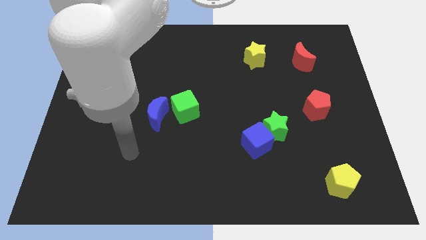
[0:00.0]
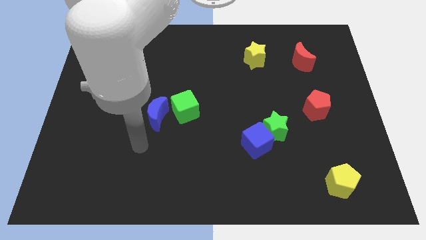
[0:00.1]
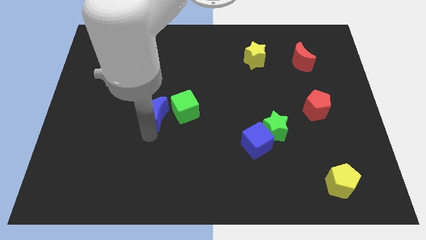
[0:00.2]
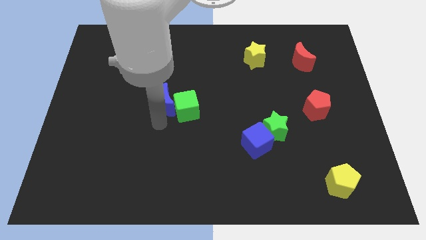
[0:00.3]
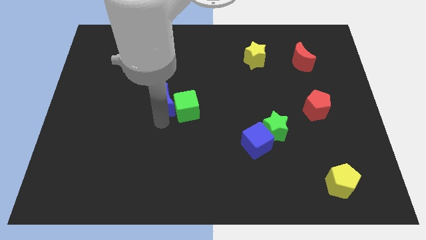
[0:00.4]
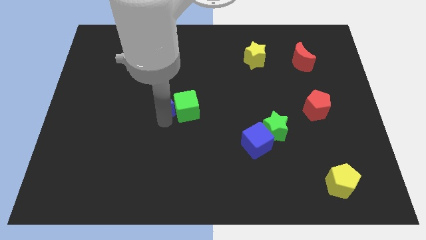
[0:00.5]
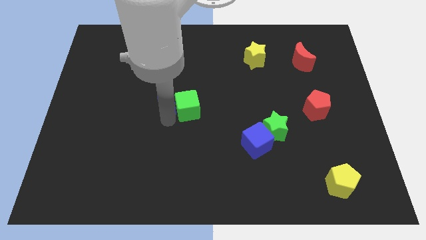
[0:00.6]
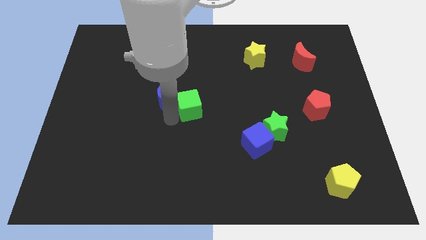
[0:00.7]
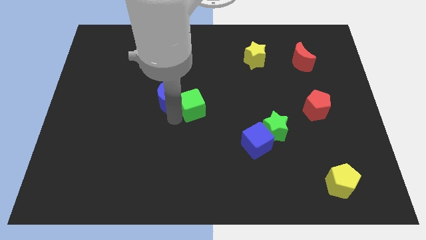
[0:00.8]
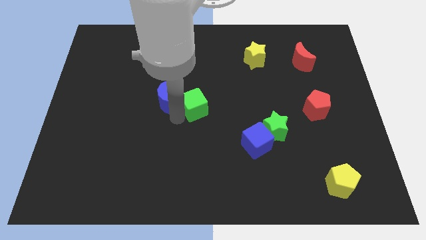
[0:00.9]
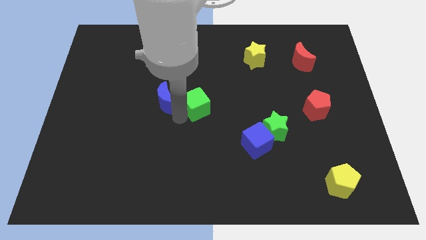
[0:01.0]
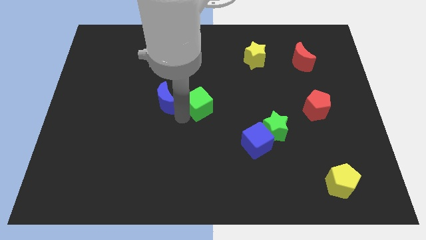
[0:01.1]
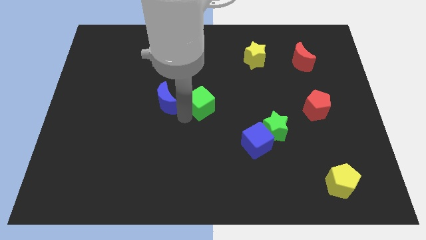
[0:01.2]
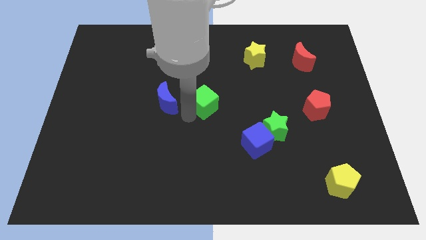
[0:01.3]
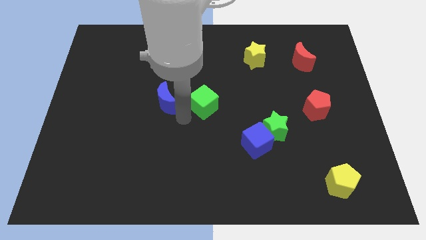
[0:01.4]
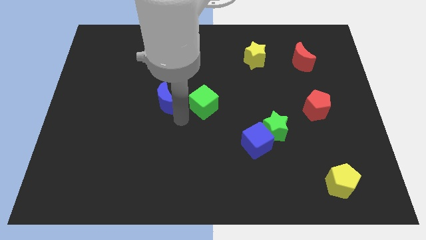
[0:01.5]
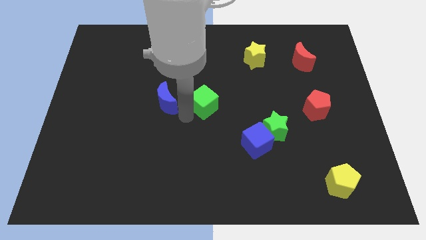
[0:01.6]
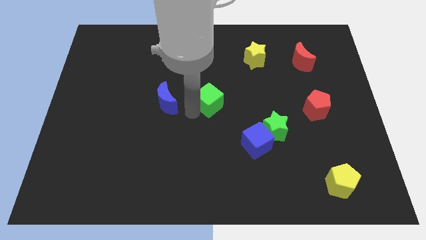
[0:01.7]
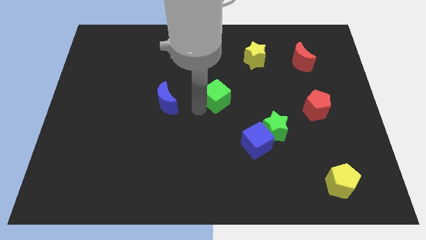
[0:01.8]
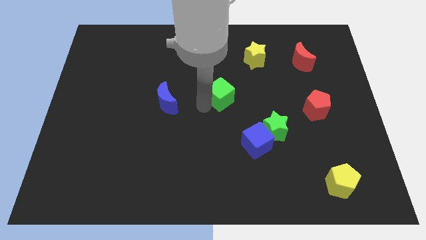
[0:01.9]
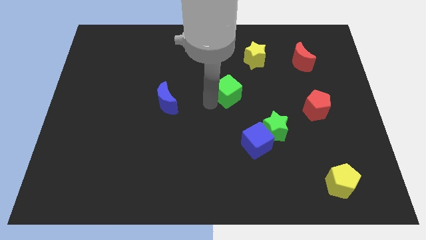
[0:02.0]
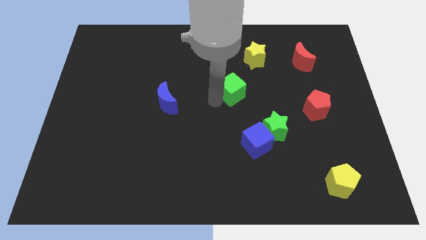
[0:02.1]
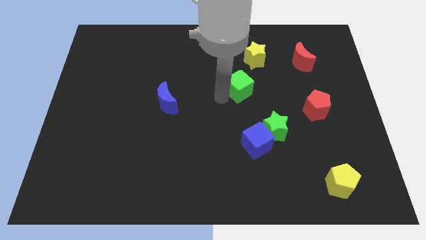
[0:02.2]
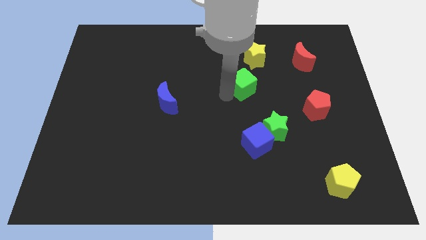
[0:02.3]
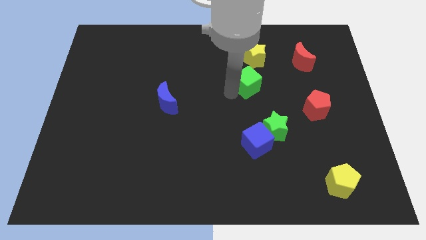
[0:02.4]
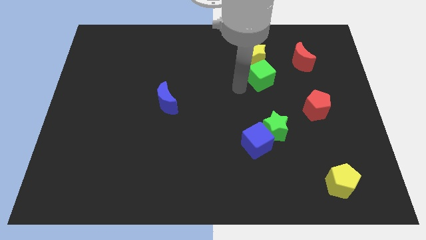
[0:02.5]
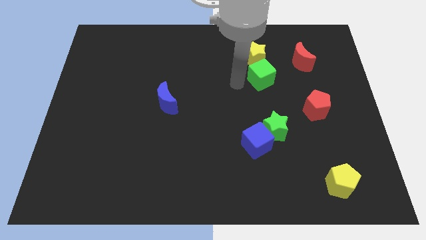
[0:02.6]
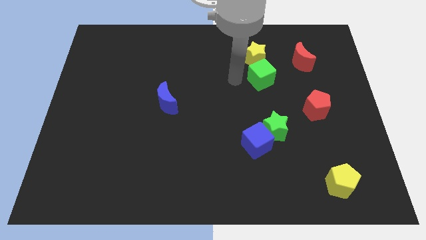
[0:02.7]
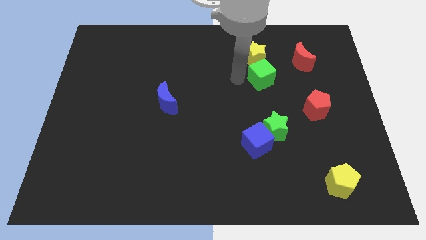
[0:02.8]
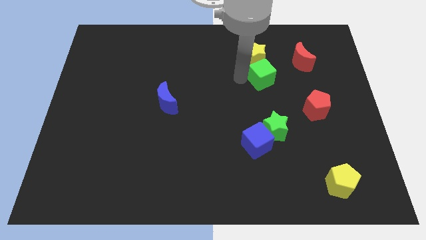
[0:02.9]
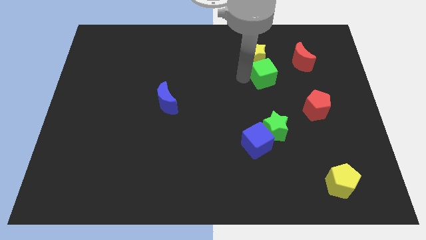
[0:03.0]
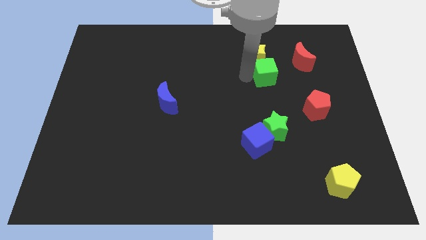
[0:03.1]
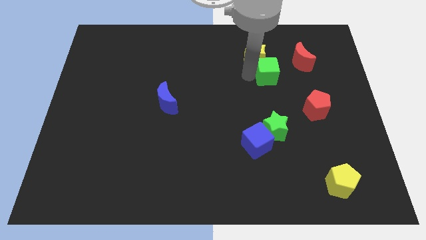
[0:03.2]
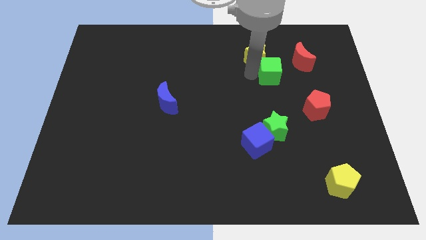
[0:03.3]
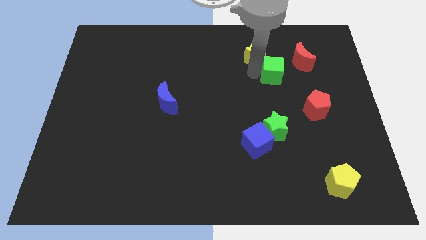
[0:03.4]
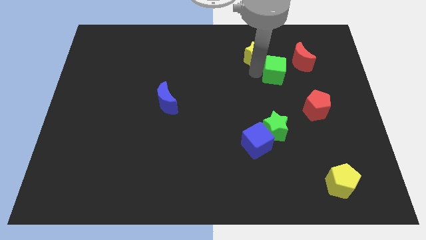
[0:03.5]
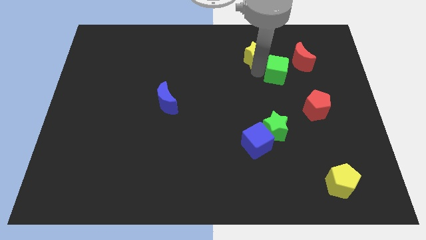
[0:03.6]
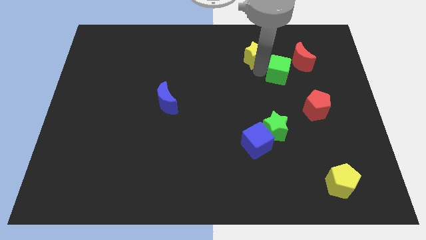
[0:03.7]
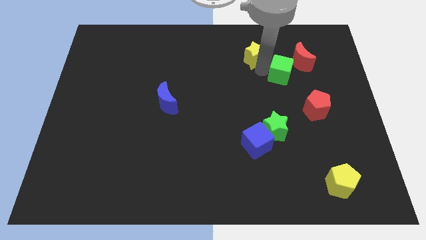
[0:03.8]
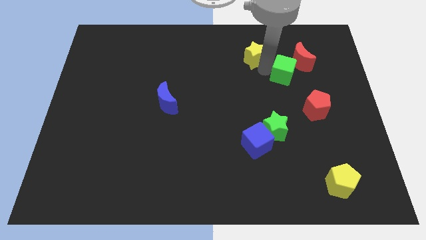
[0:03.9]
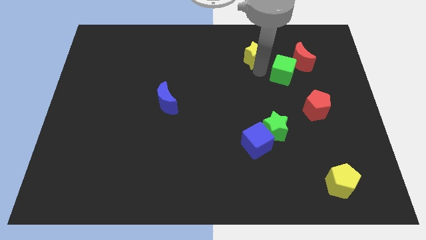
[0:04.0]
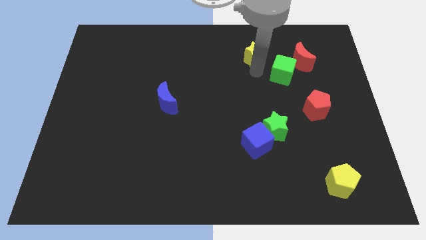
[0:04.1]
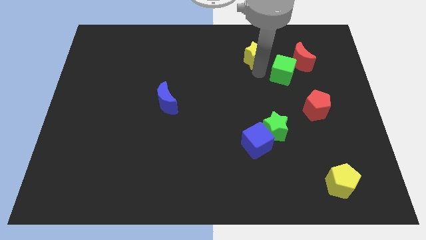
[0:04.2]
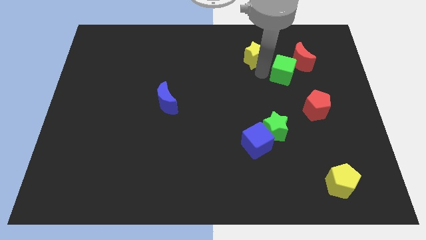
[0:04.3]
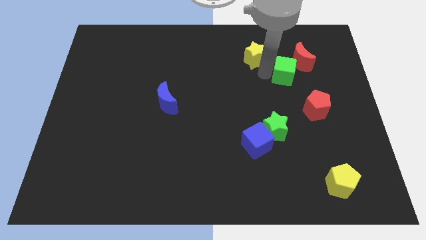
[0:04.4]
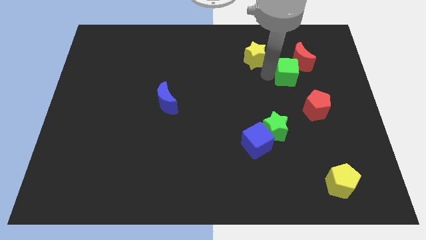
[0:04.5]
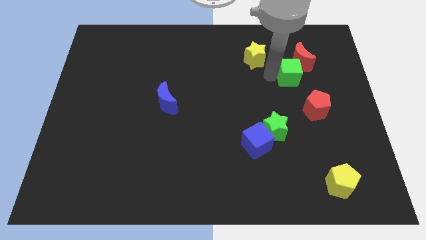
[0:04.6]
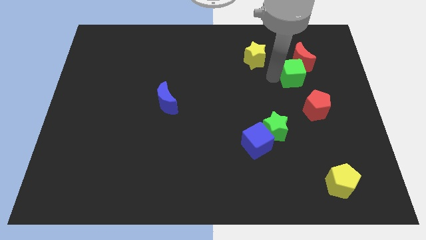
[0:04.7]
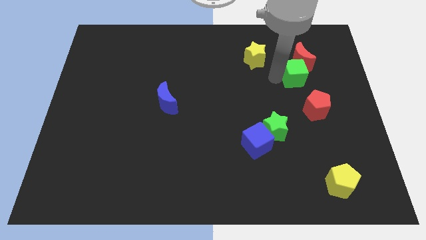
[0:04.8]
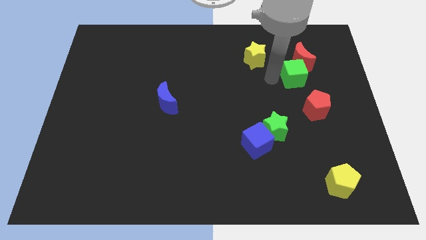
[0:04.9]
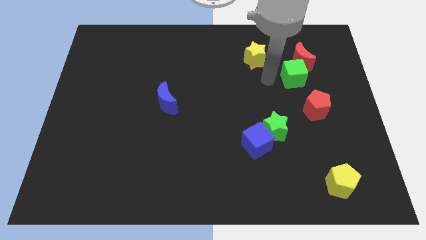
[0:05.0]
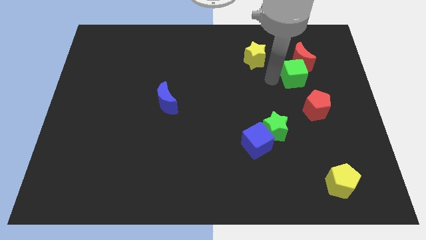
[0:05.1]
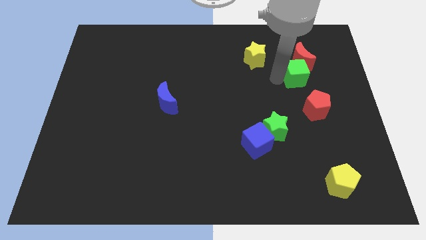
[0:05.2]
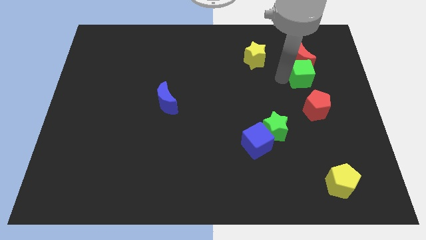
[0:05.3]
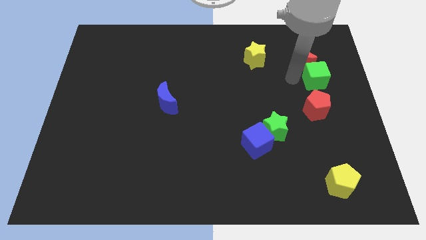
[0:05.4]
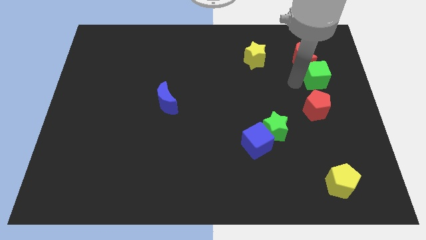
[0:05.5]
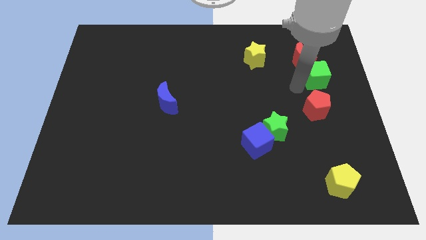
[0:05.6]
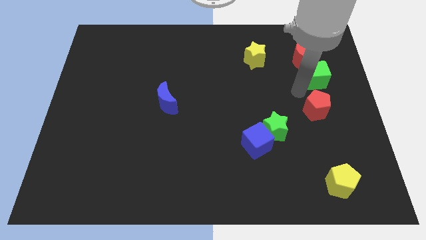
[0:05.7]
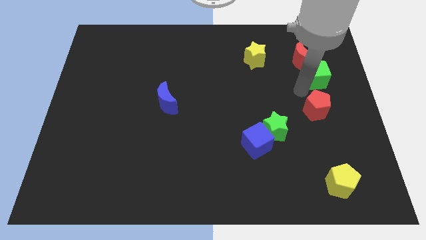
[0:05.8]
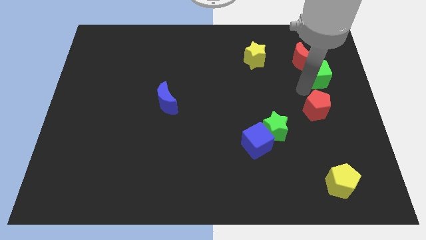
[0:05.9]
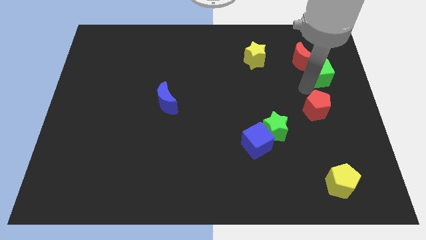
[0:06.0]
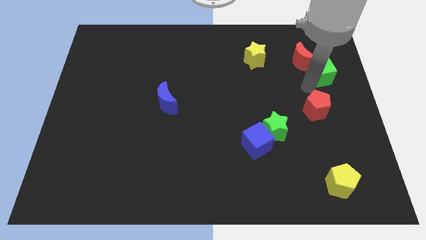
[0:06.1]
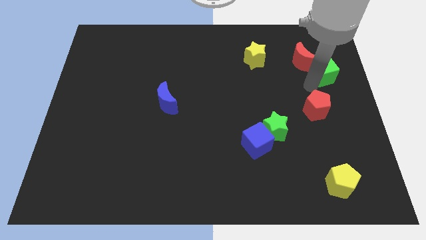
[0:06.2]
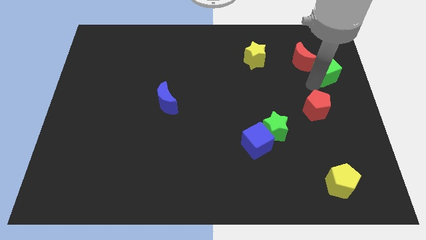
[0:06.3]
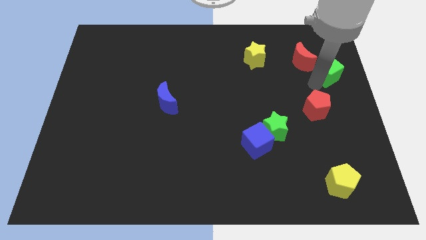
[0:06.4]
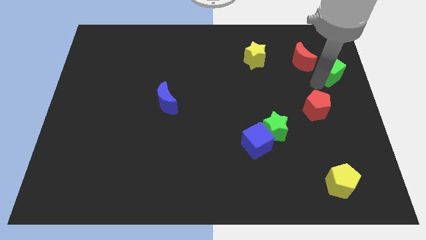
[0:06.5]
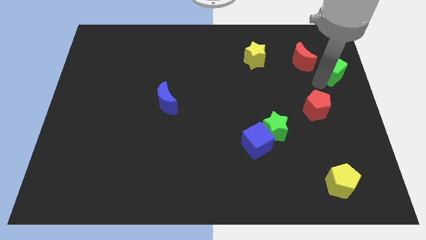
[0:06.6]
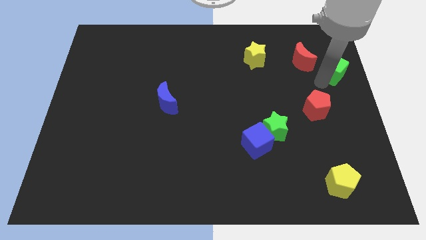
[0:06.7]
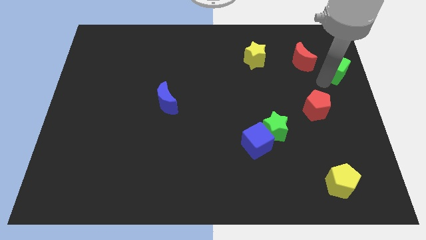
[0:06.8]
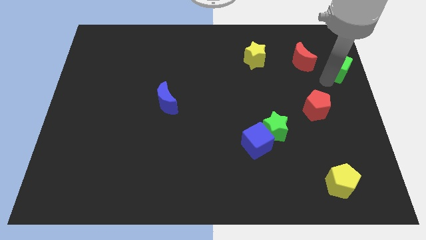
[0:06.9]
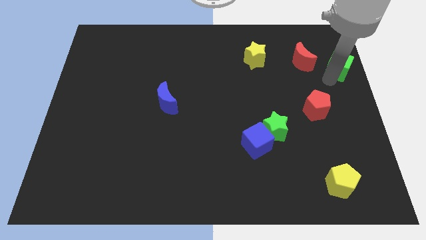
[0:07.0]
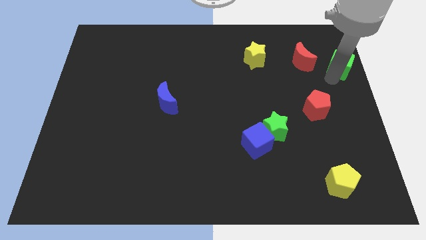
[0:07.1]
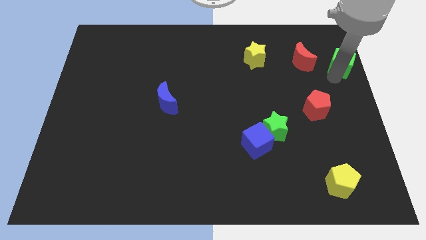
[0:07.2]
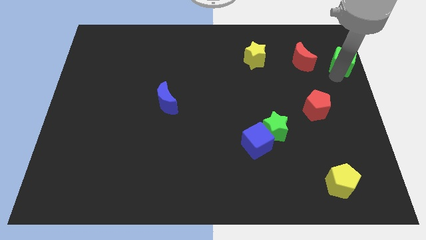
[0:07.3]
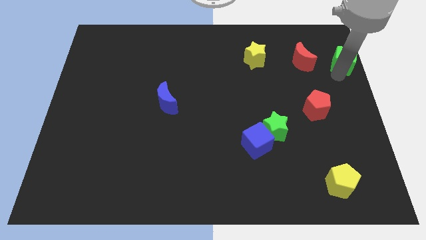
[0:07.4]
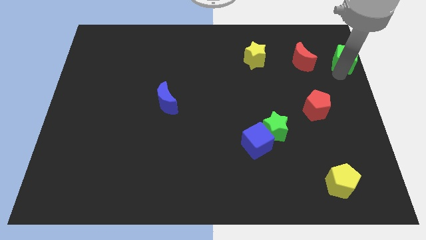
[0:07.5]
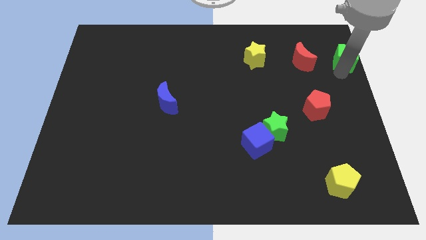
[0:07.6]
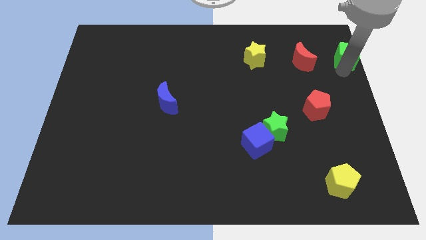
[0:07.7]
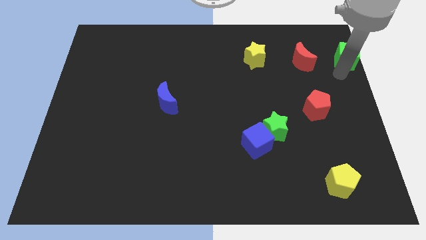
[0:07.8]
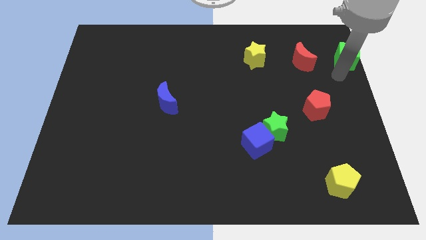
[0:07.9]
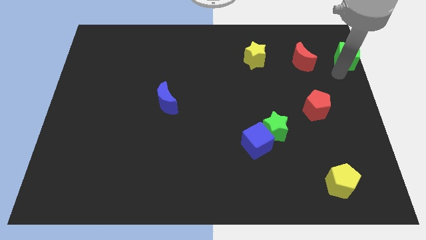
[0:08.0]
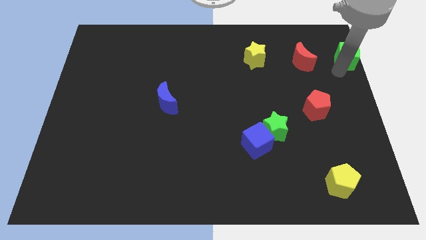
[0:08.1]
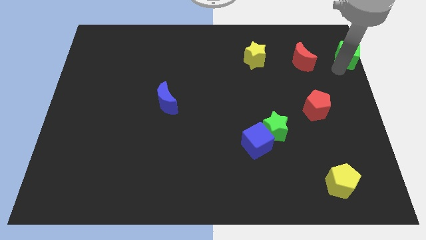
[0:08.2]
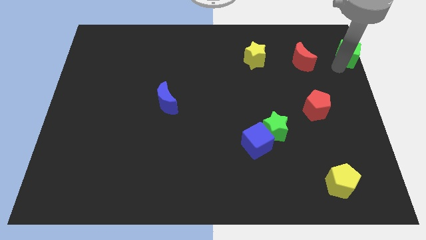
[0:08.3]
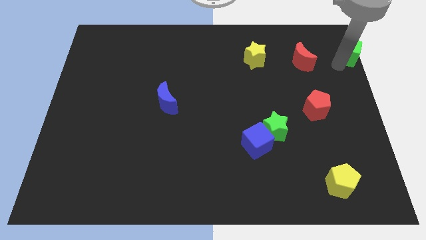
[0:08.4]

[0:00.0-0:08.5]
push the green cube to the top right
